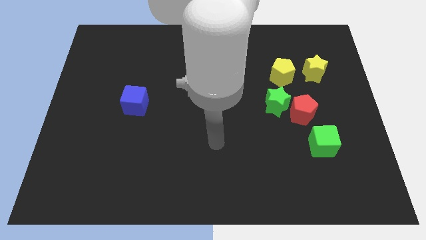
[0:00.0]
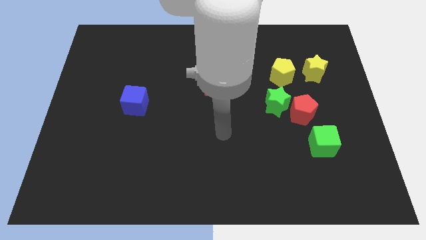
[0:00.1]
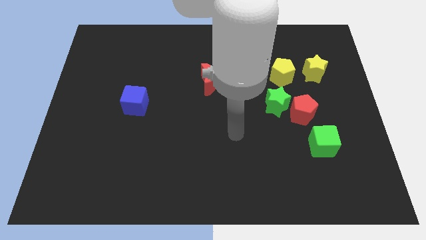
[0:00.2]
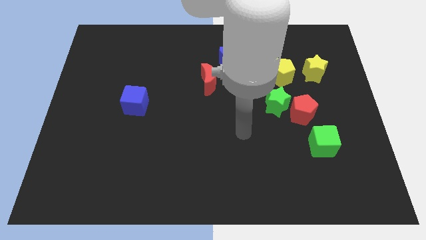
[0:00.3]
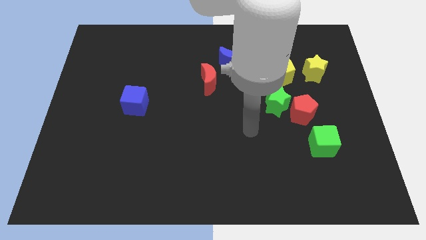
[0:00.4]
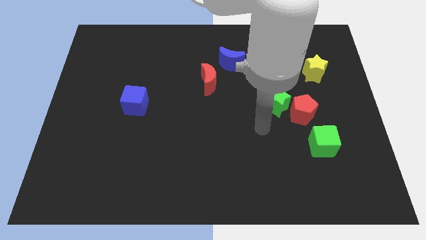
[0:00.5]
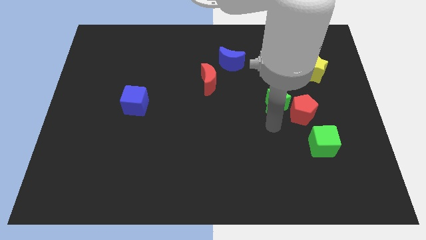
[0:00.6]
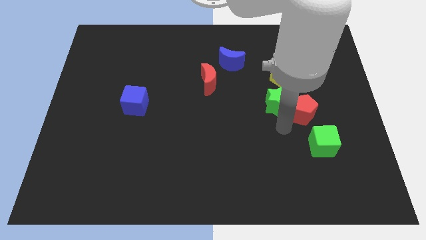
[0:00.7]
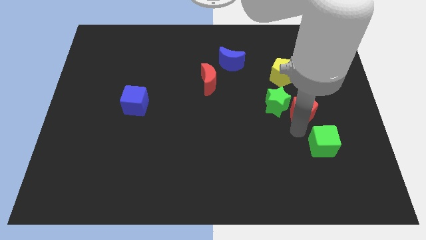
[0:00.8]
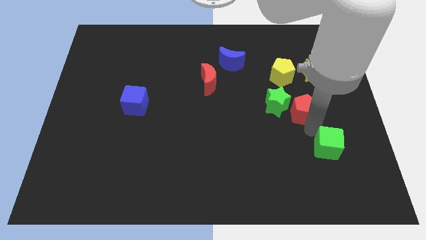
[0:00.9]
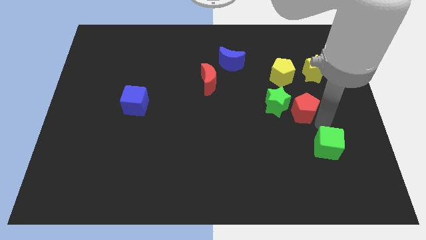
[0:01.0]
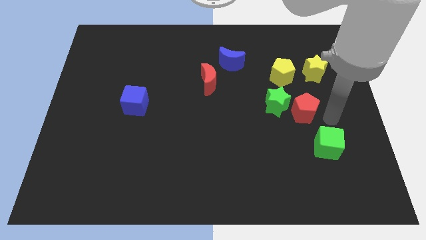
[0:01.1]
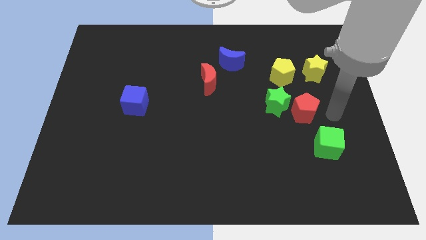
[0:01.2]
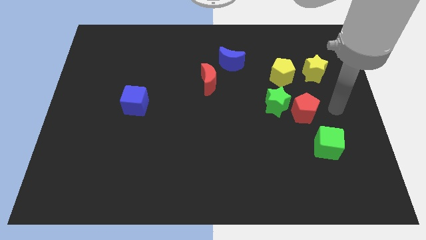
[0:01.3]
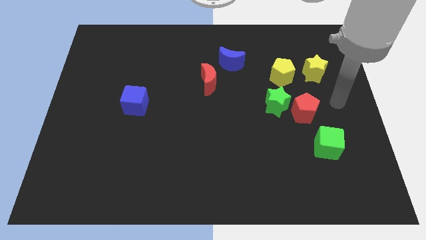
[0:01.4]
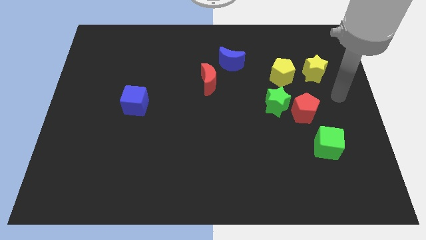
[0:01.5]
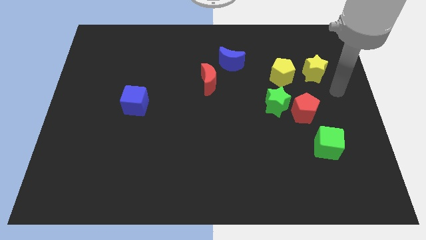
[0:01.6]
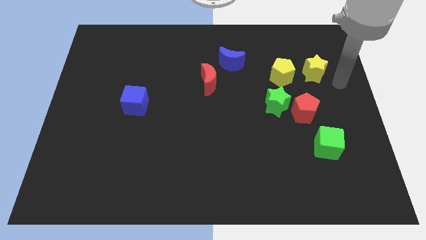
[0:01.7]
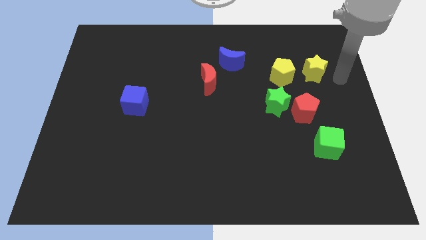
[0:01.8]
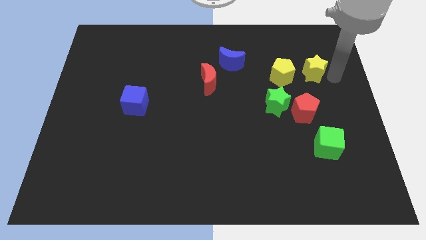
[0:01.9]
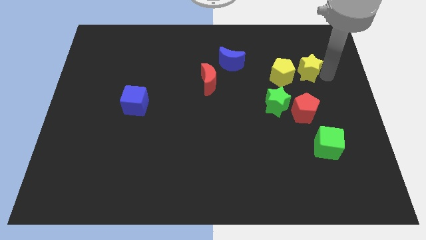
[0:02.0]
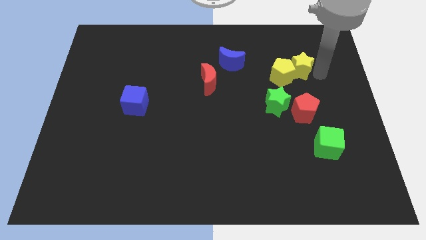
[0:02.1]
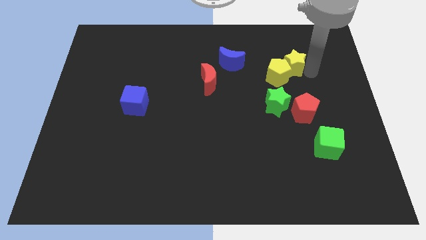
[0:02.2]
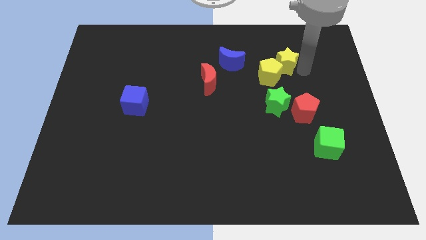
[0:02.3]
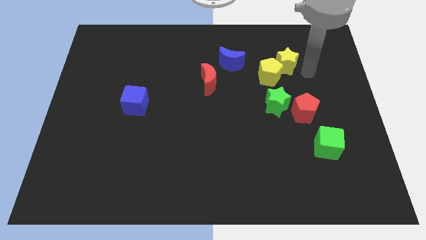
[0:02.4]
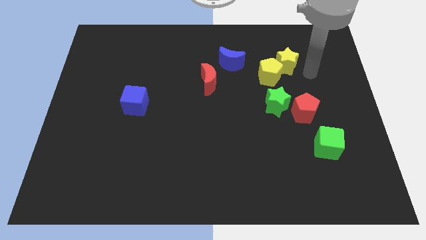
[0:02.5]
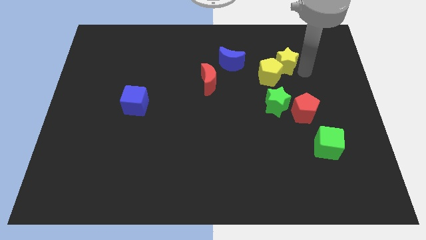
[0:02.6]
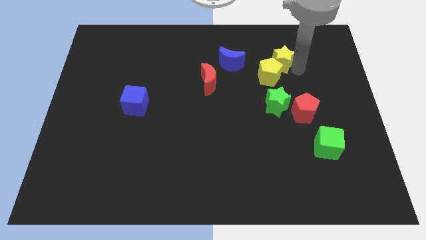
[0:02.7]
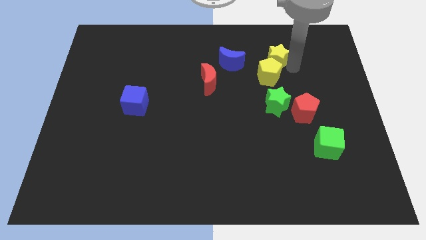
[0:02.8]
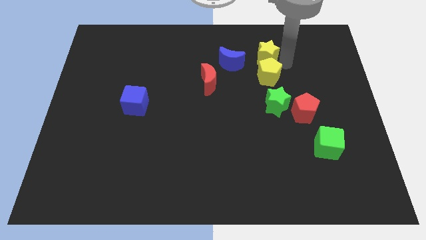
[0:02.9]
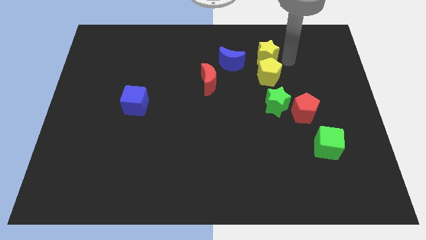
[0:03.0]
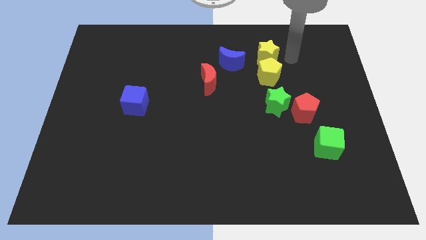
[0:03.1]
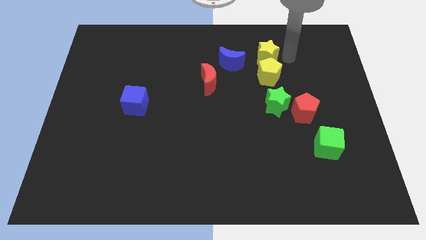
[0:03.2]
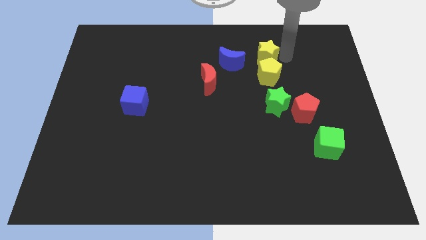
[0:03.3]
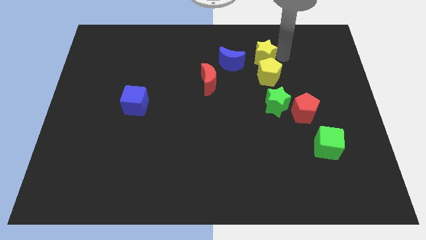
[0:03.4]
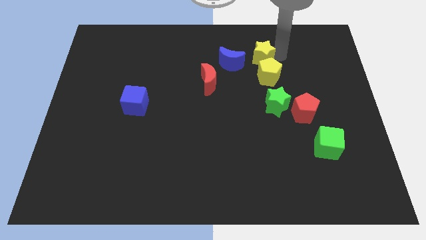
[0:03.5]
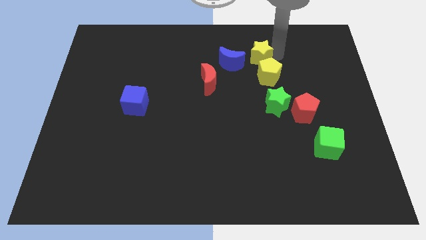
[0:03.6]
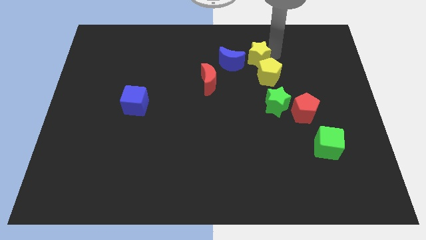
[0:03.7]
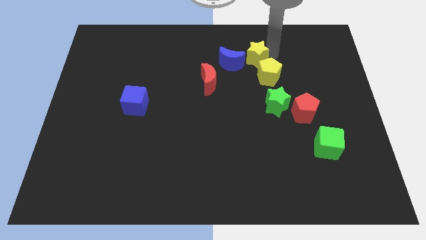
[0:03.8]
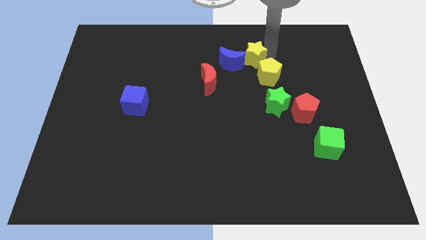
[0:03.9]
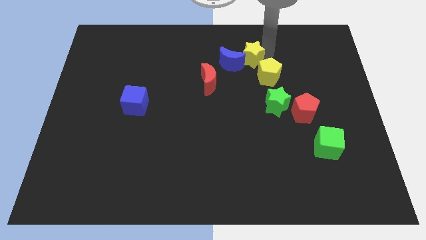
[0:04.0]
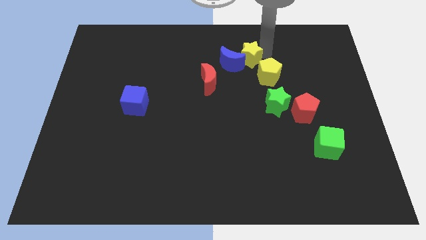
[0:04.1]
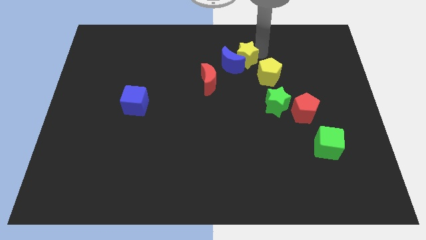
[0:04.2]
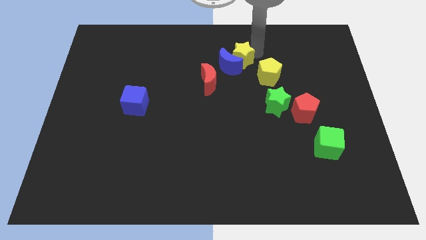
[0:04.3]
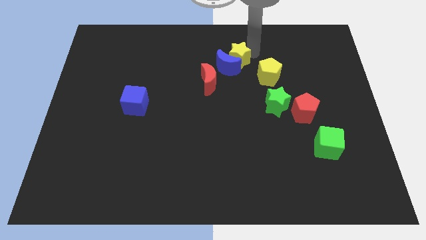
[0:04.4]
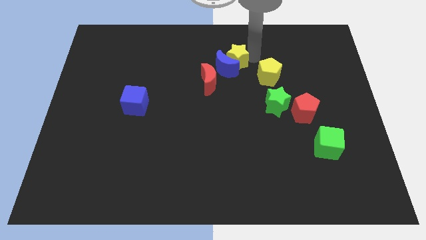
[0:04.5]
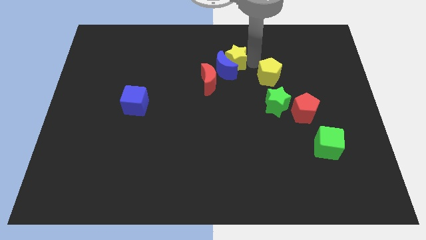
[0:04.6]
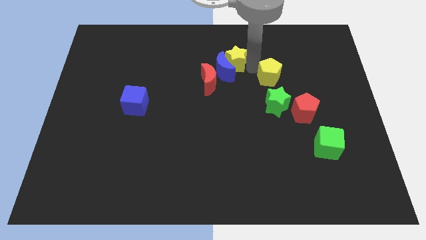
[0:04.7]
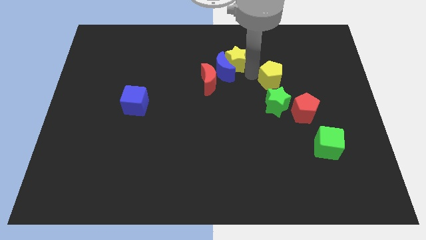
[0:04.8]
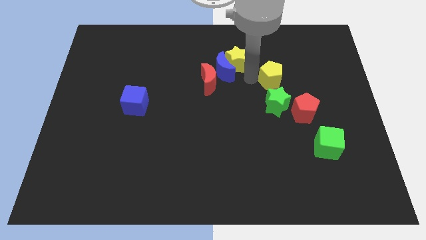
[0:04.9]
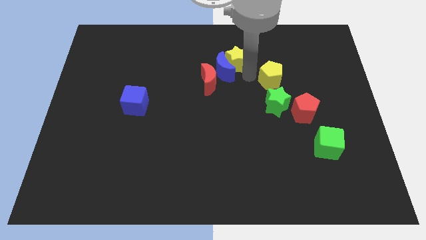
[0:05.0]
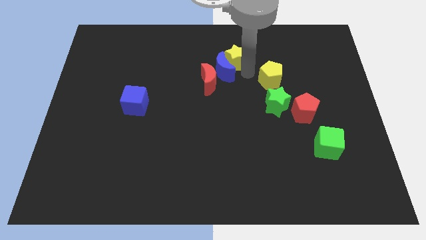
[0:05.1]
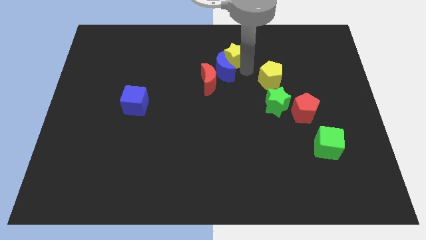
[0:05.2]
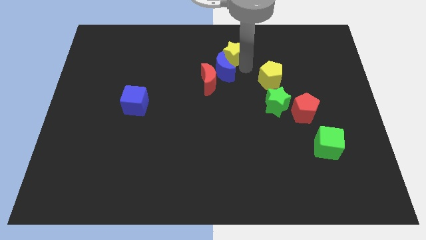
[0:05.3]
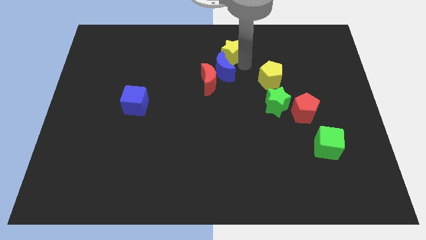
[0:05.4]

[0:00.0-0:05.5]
slide the yellow star to the top side

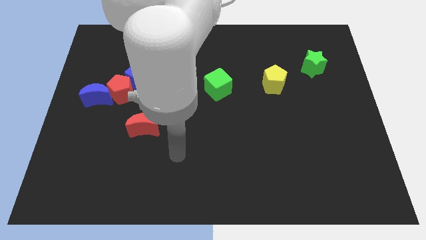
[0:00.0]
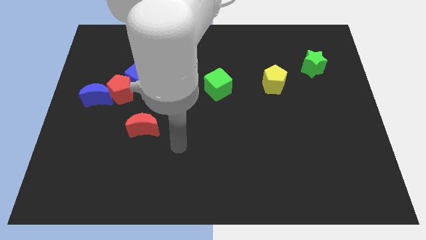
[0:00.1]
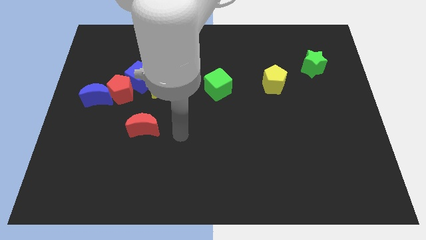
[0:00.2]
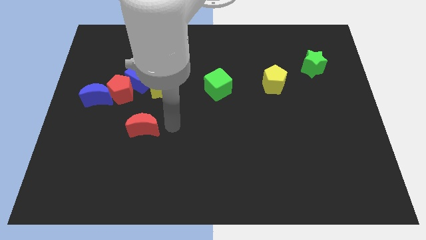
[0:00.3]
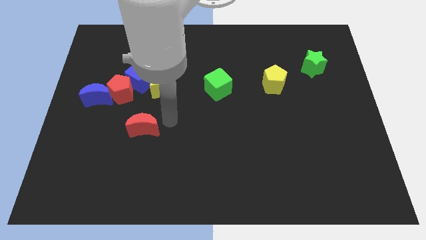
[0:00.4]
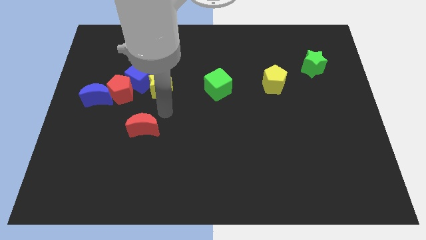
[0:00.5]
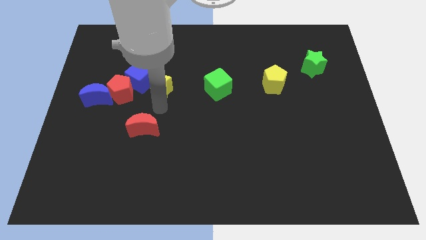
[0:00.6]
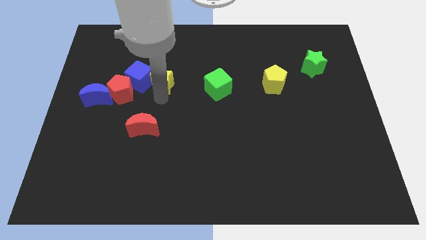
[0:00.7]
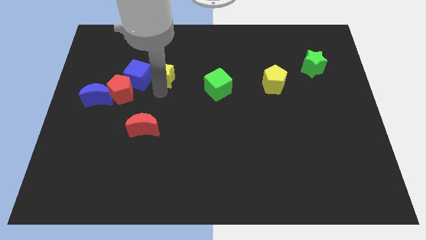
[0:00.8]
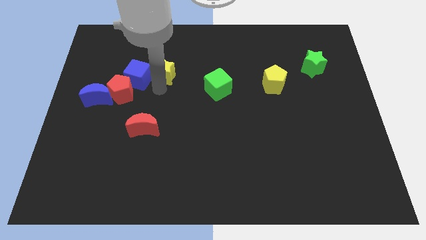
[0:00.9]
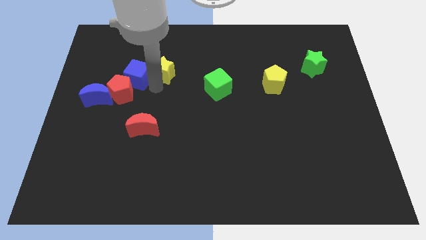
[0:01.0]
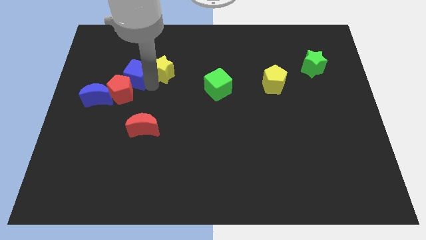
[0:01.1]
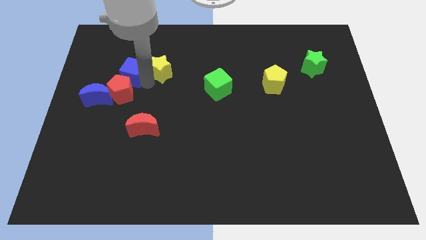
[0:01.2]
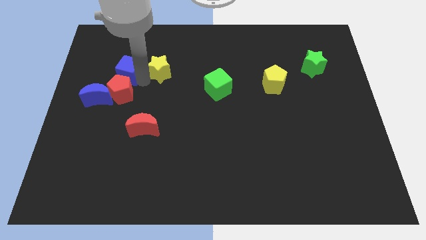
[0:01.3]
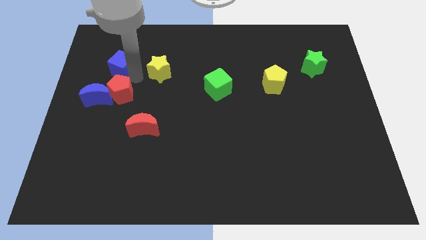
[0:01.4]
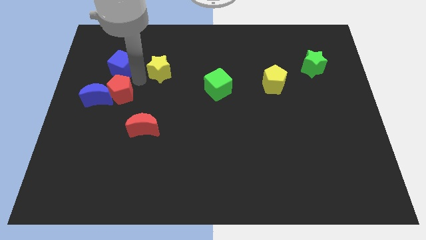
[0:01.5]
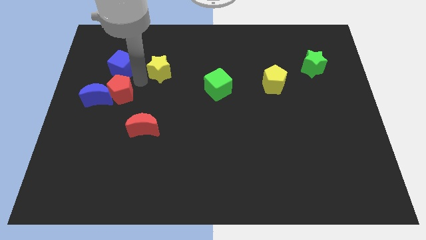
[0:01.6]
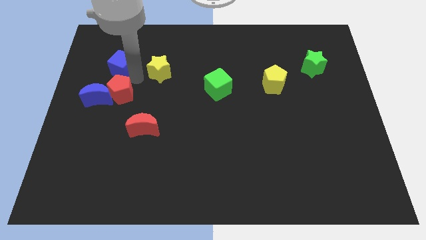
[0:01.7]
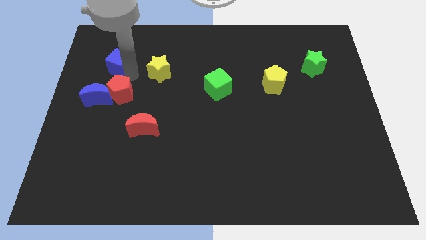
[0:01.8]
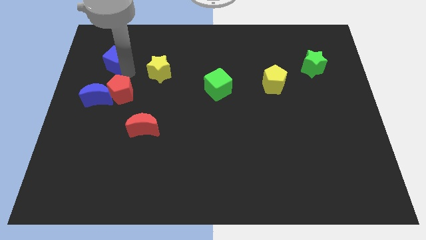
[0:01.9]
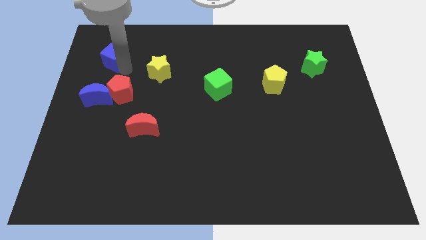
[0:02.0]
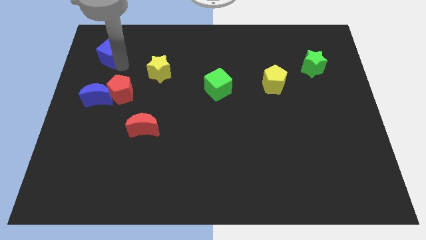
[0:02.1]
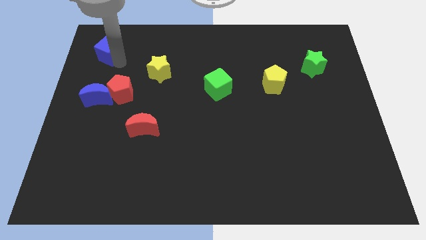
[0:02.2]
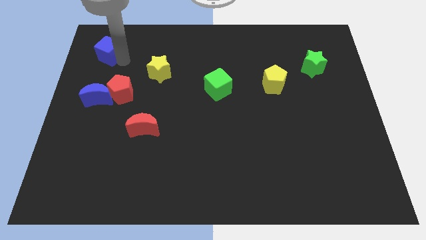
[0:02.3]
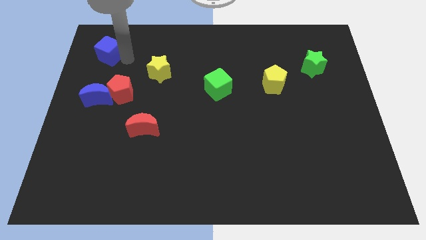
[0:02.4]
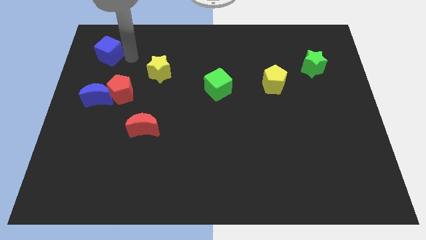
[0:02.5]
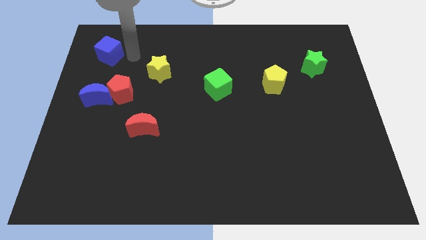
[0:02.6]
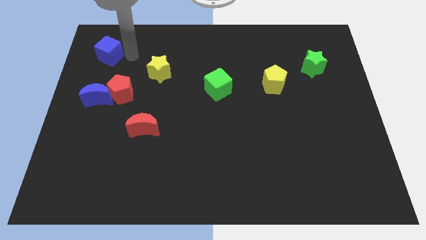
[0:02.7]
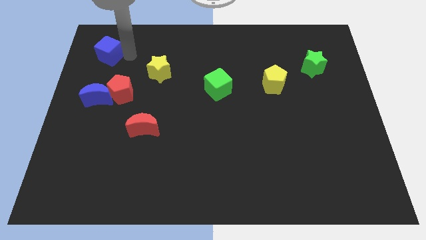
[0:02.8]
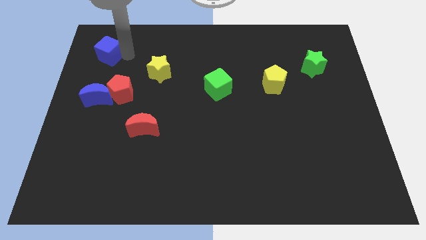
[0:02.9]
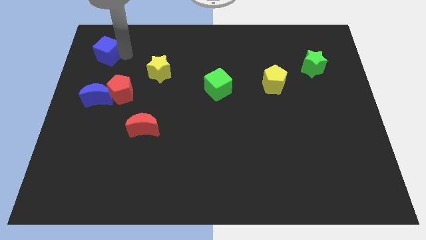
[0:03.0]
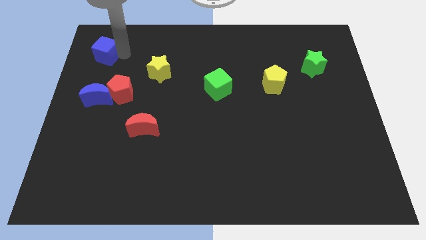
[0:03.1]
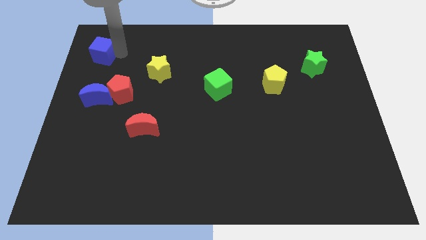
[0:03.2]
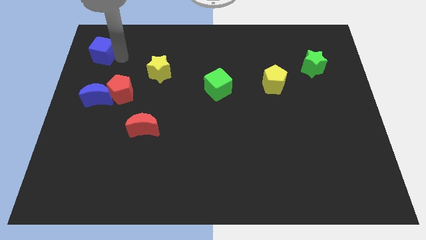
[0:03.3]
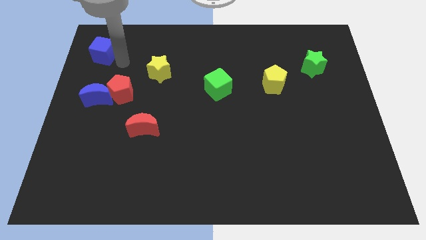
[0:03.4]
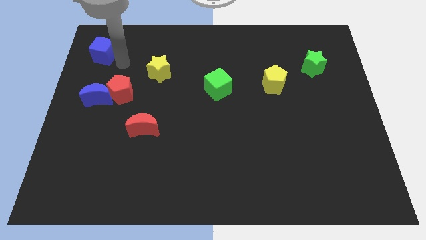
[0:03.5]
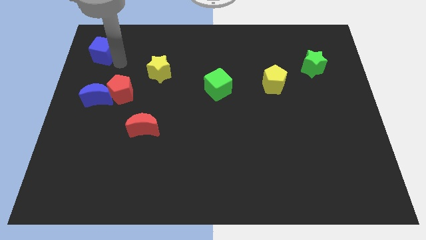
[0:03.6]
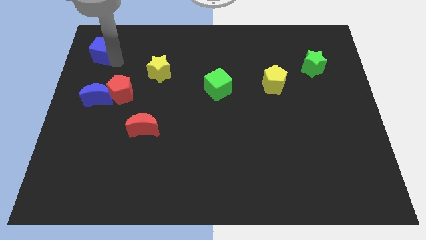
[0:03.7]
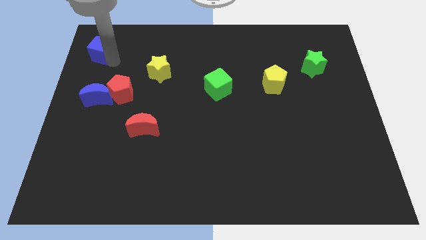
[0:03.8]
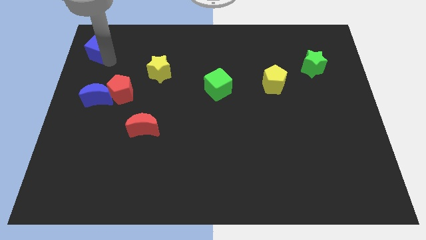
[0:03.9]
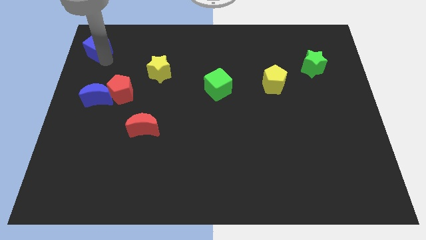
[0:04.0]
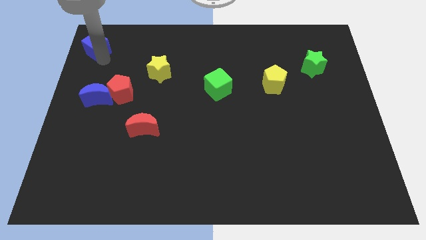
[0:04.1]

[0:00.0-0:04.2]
move the blue cube to the top left corner
